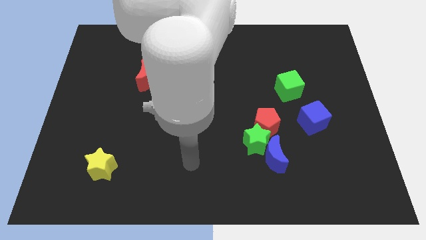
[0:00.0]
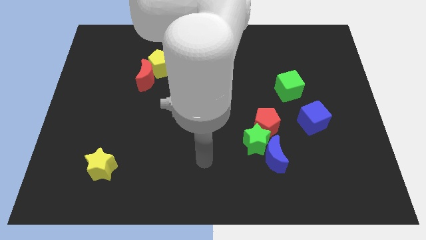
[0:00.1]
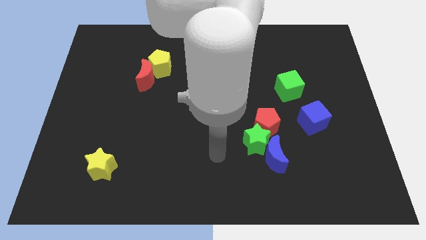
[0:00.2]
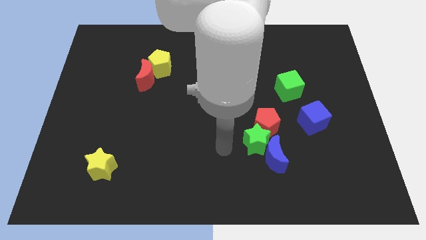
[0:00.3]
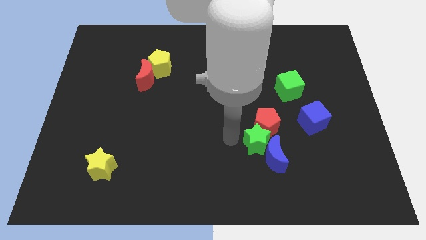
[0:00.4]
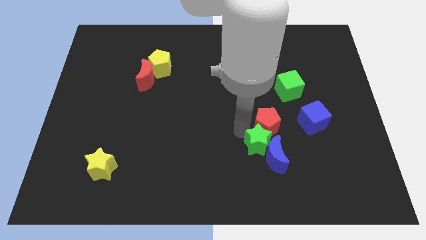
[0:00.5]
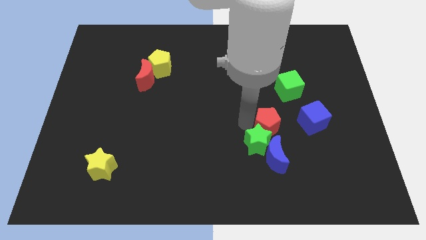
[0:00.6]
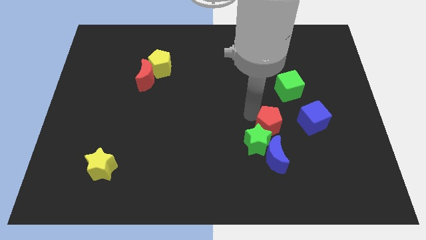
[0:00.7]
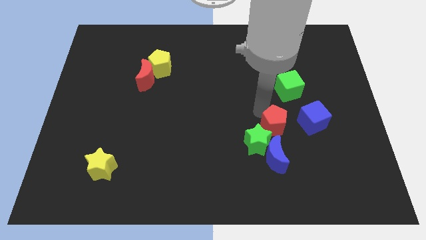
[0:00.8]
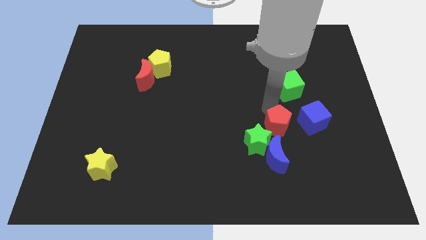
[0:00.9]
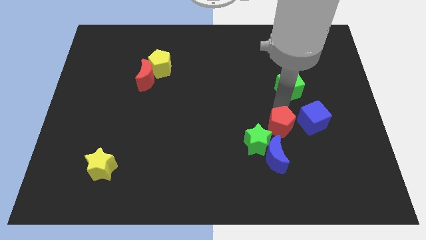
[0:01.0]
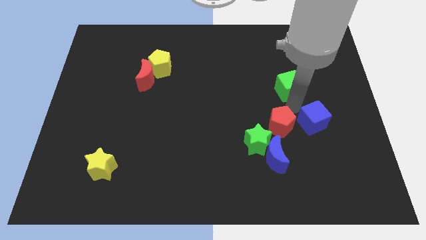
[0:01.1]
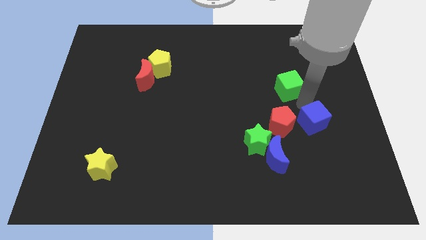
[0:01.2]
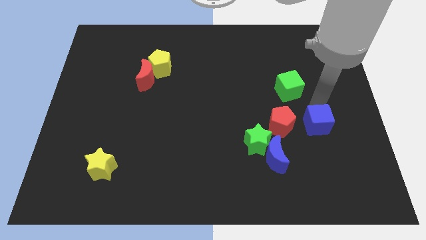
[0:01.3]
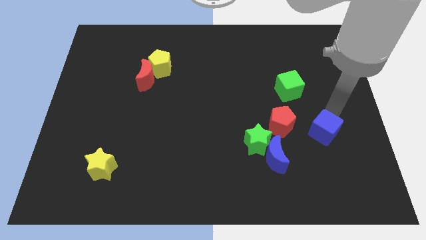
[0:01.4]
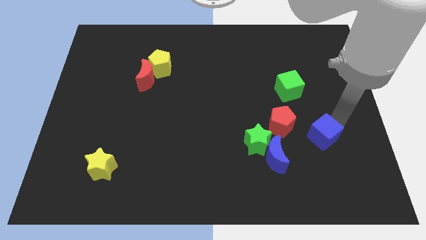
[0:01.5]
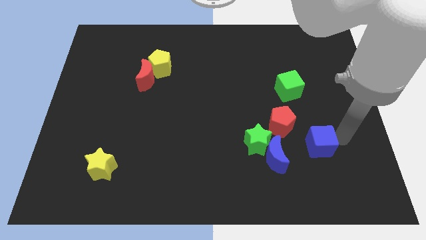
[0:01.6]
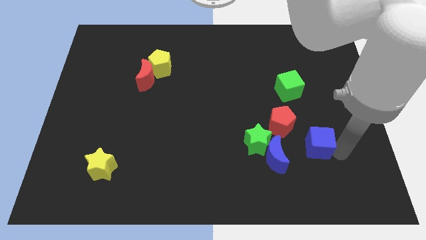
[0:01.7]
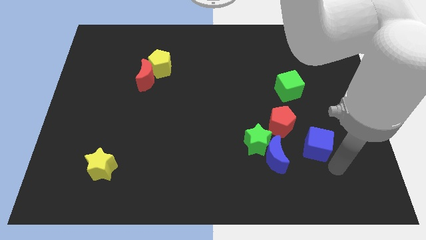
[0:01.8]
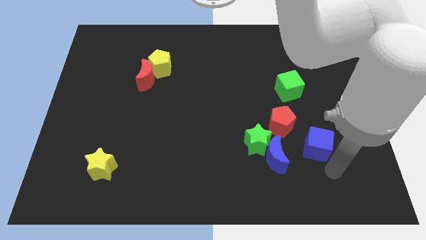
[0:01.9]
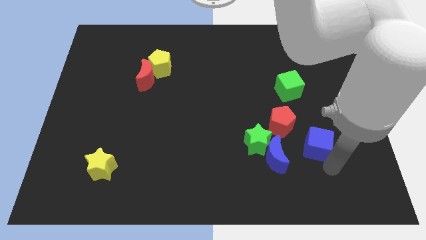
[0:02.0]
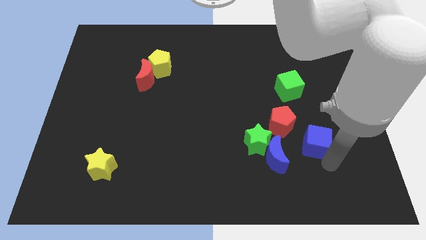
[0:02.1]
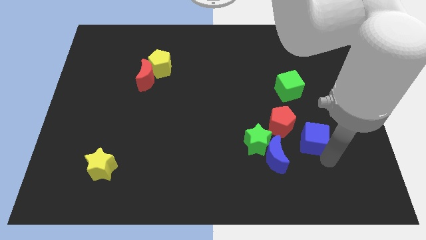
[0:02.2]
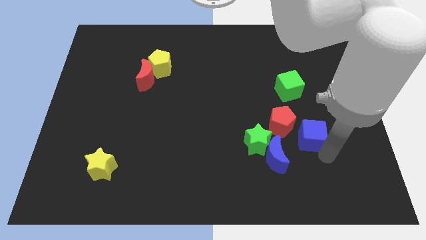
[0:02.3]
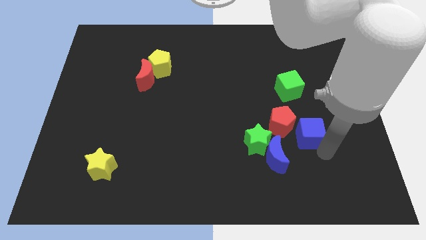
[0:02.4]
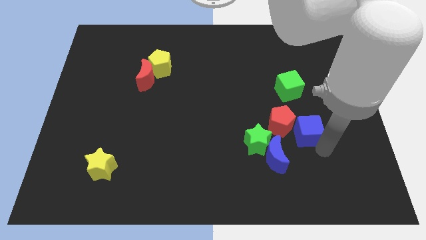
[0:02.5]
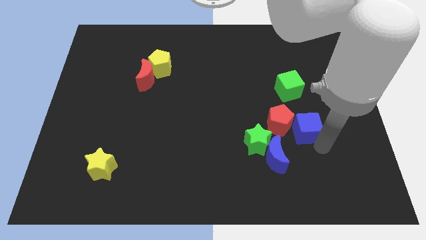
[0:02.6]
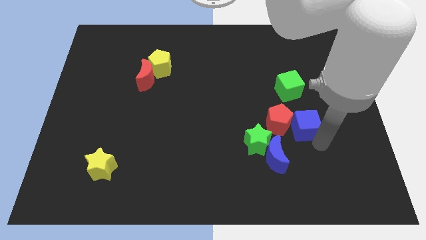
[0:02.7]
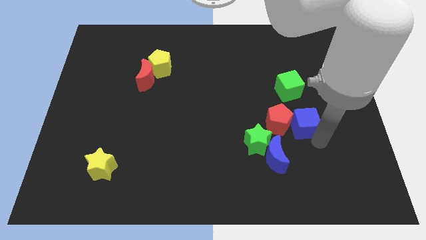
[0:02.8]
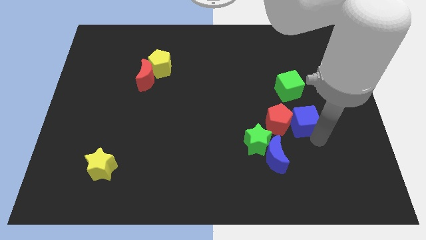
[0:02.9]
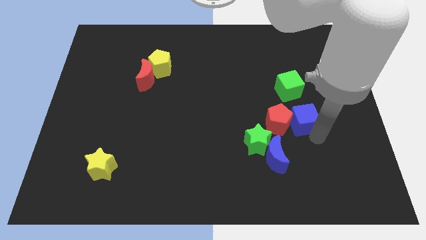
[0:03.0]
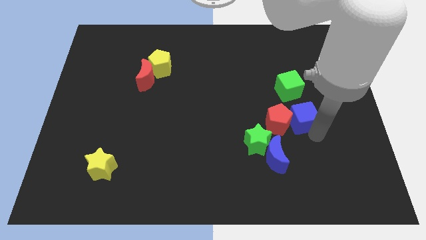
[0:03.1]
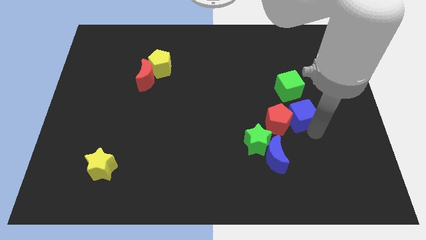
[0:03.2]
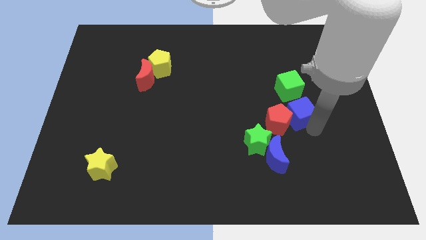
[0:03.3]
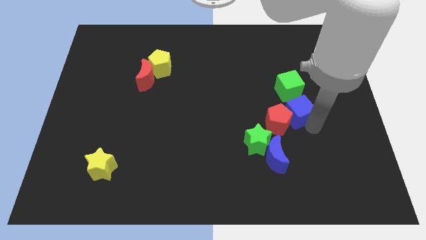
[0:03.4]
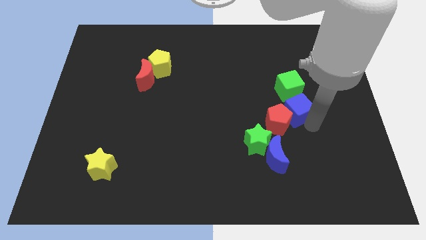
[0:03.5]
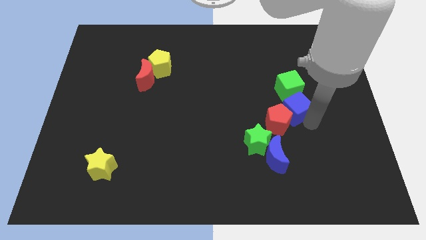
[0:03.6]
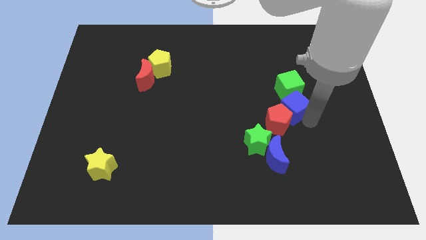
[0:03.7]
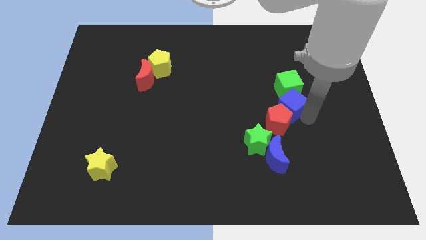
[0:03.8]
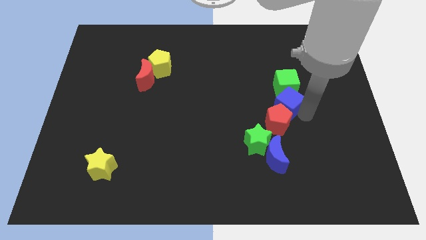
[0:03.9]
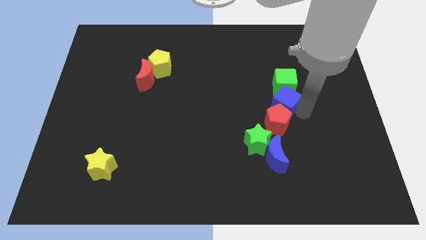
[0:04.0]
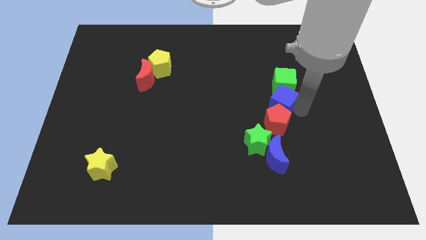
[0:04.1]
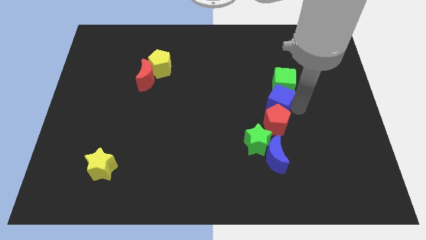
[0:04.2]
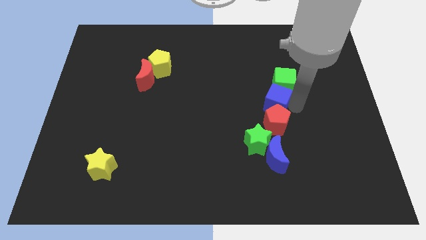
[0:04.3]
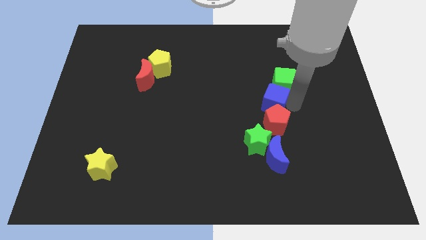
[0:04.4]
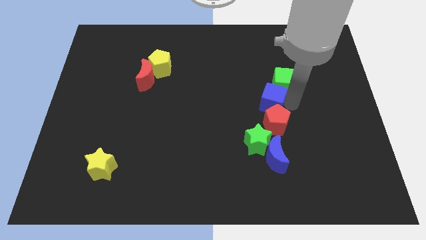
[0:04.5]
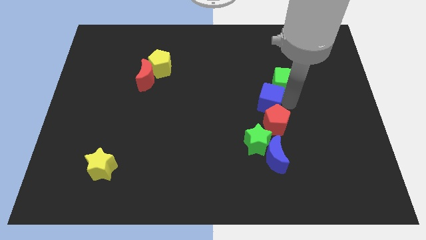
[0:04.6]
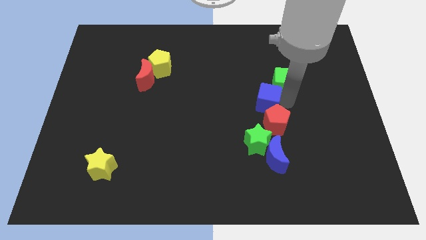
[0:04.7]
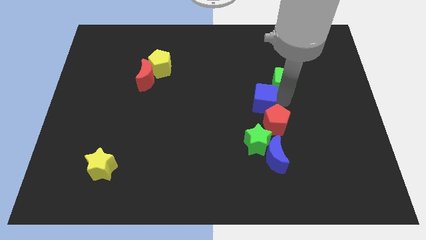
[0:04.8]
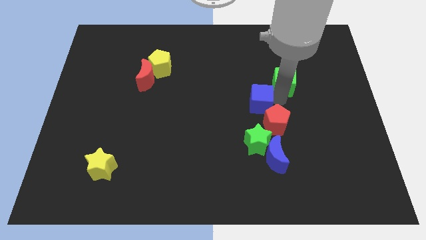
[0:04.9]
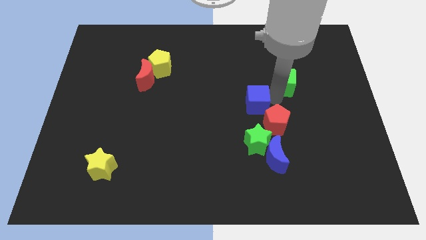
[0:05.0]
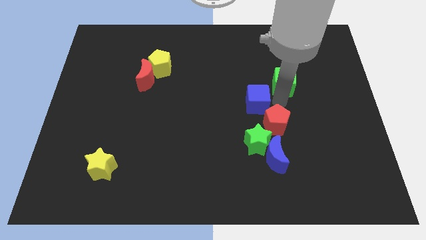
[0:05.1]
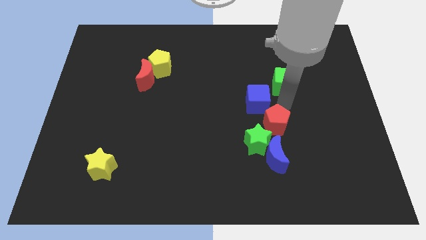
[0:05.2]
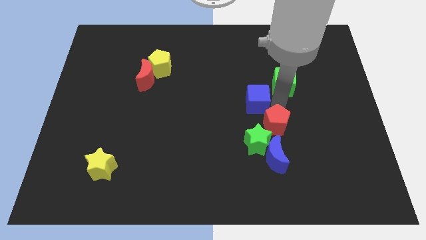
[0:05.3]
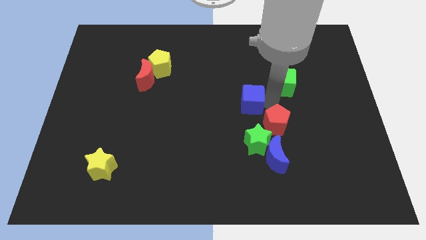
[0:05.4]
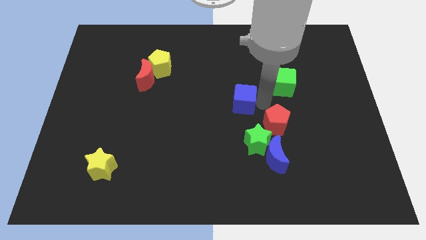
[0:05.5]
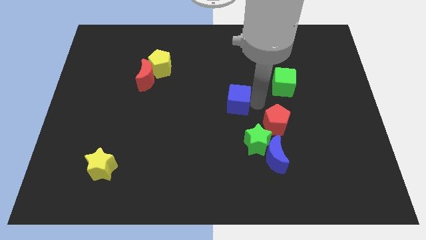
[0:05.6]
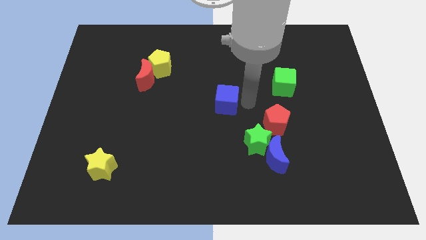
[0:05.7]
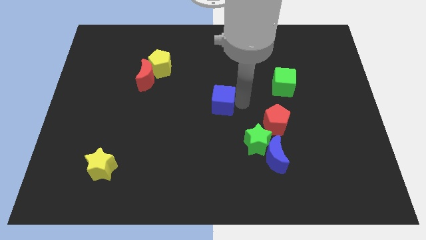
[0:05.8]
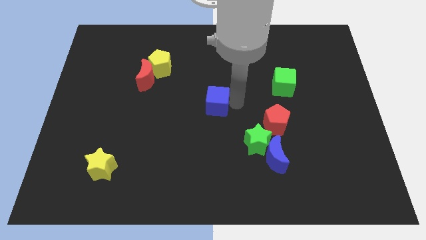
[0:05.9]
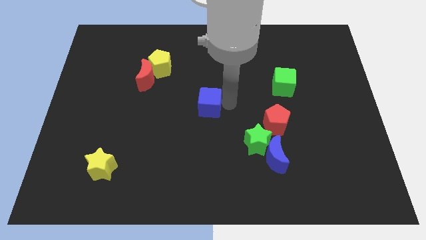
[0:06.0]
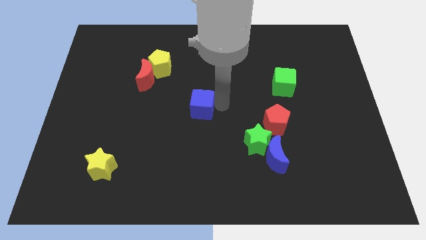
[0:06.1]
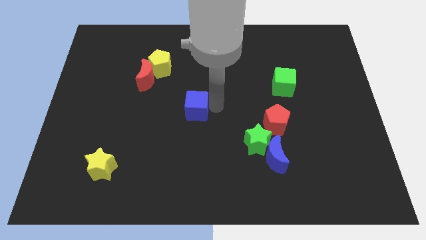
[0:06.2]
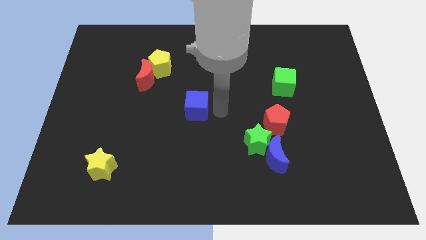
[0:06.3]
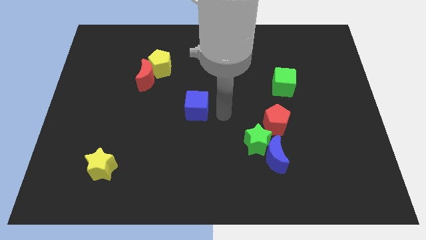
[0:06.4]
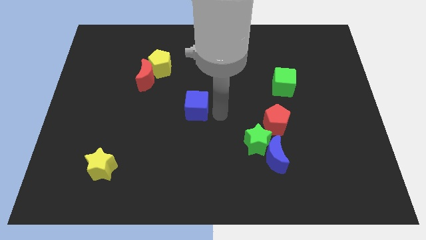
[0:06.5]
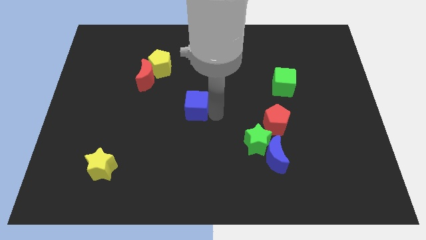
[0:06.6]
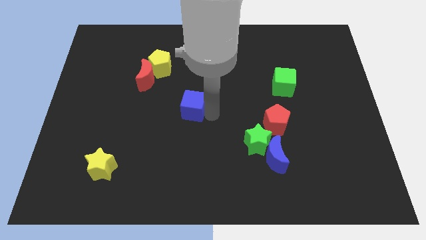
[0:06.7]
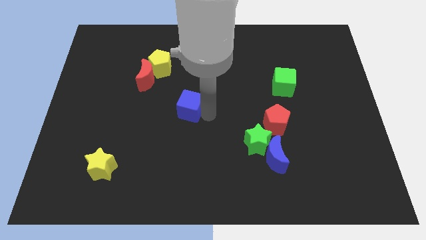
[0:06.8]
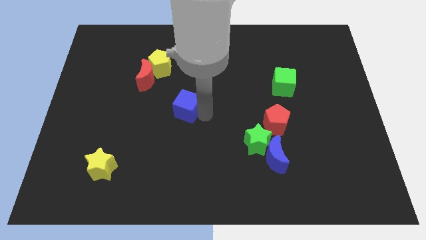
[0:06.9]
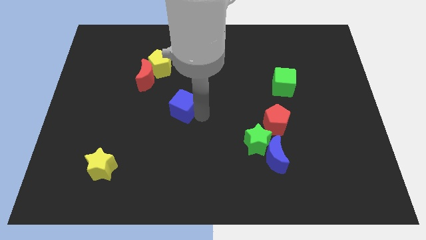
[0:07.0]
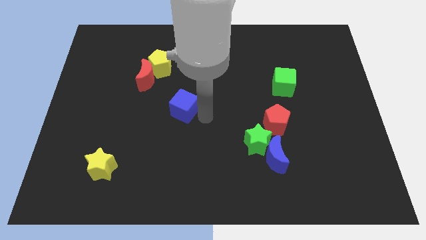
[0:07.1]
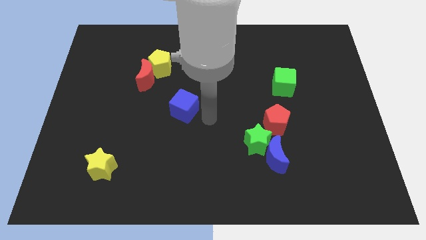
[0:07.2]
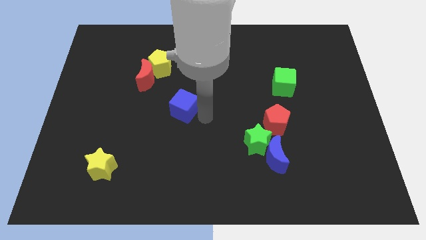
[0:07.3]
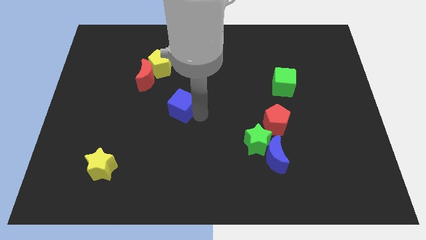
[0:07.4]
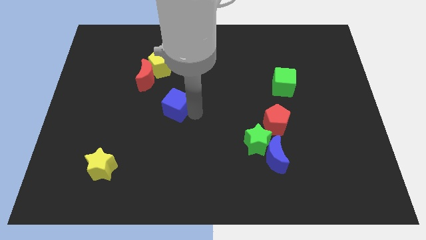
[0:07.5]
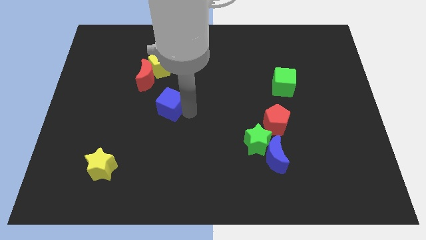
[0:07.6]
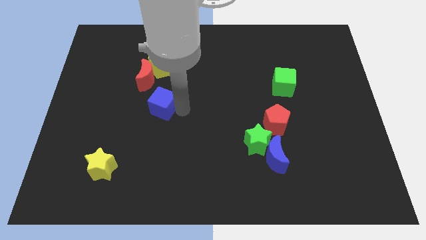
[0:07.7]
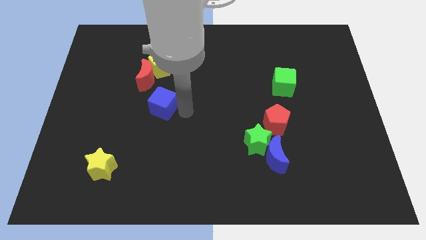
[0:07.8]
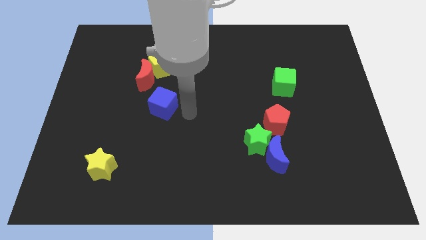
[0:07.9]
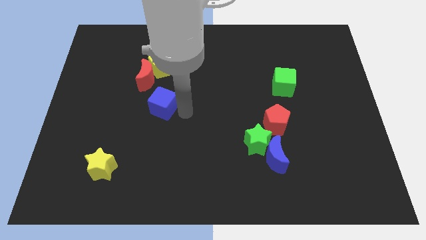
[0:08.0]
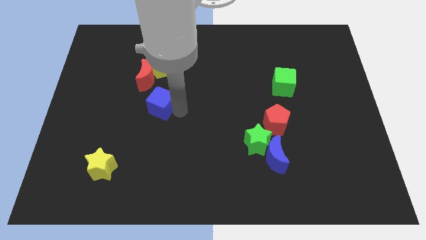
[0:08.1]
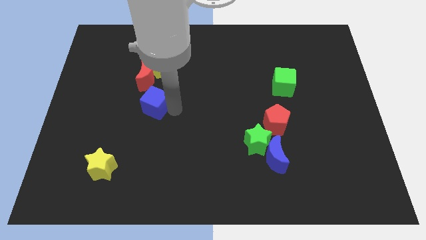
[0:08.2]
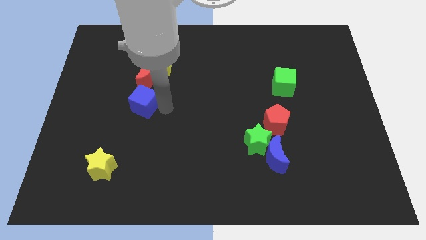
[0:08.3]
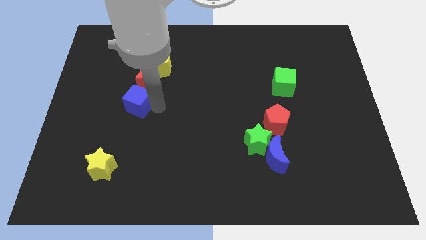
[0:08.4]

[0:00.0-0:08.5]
slide the blue cube to the bottom left of the red moon
